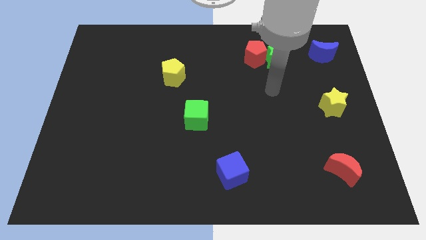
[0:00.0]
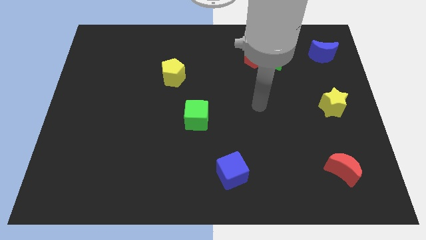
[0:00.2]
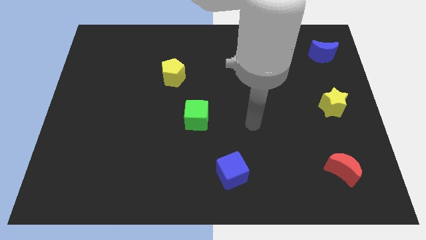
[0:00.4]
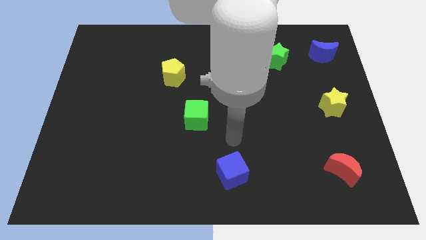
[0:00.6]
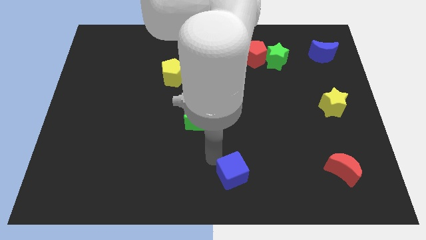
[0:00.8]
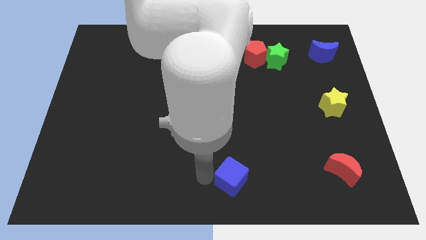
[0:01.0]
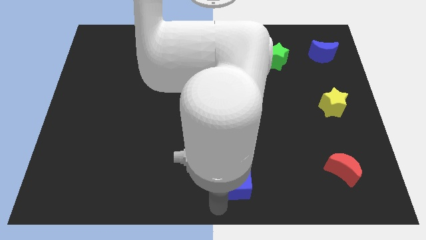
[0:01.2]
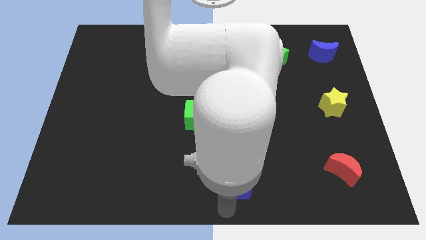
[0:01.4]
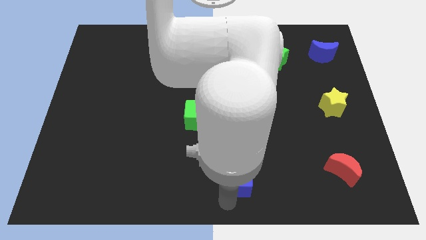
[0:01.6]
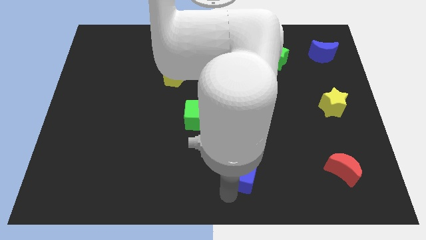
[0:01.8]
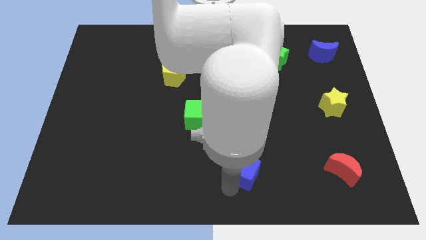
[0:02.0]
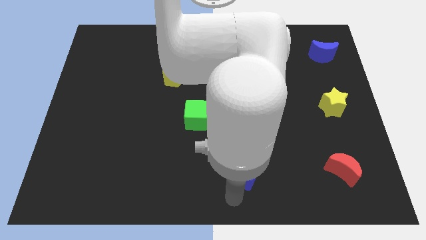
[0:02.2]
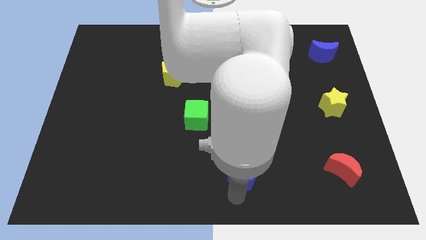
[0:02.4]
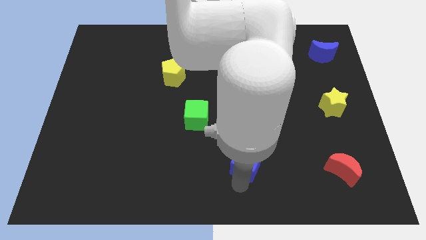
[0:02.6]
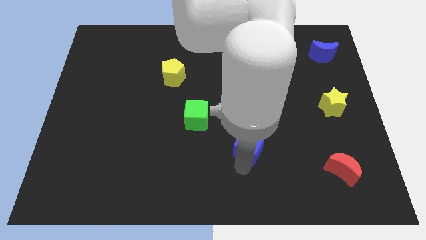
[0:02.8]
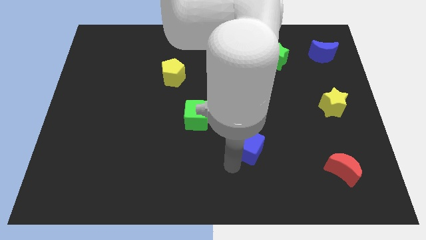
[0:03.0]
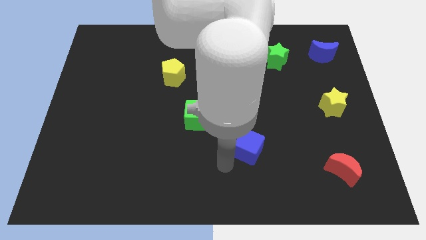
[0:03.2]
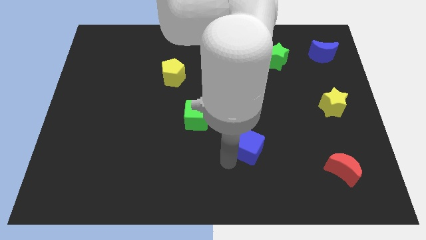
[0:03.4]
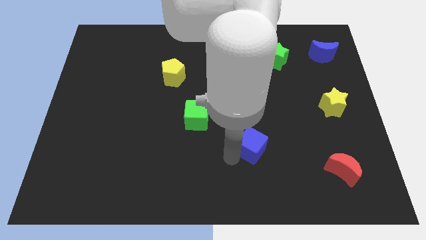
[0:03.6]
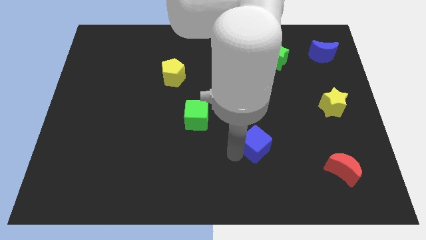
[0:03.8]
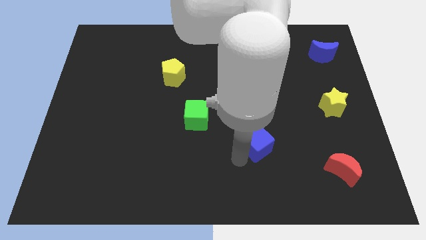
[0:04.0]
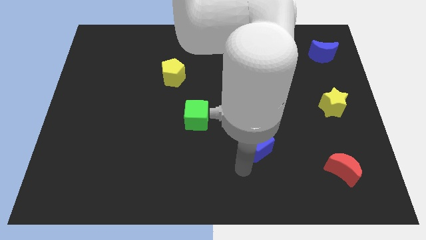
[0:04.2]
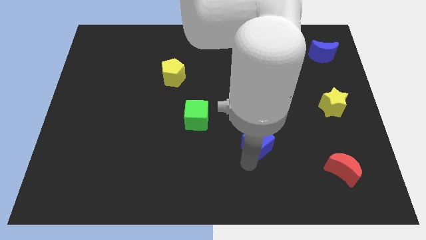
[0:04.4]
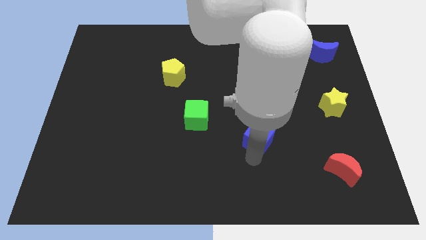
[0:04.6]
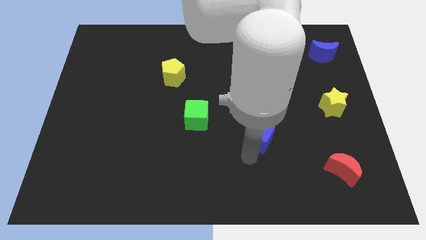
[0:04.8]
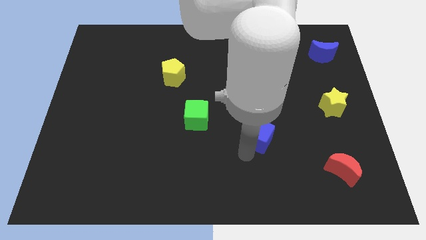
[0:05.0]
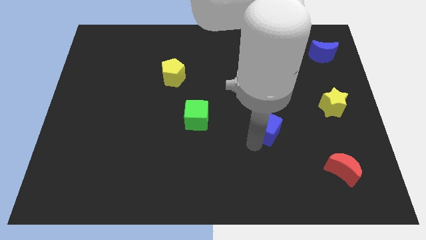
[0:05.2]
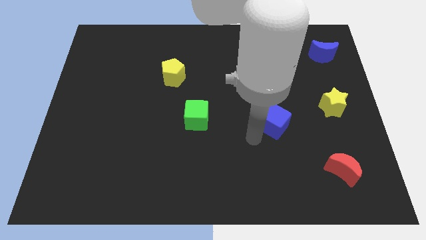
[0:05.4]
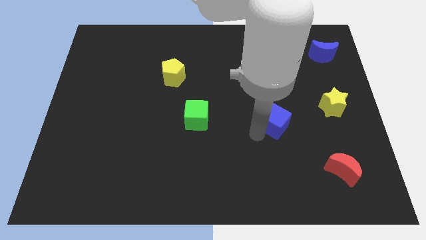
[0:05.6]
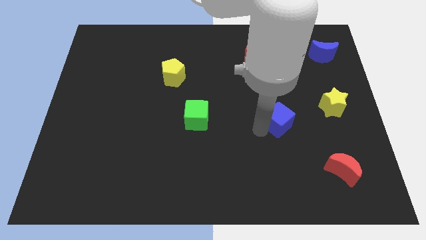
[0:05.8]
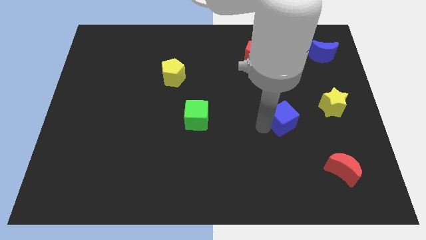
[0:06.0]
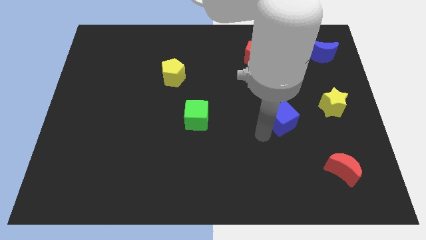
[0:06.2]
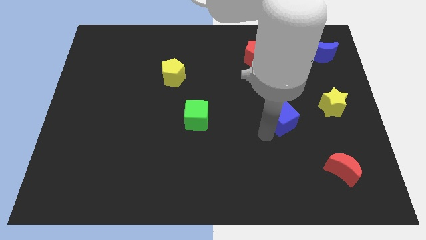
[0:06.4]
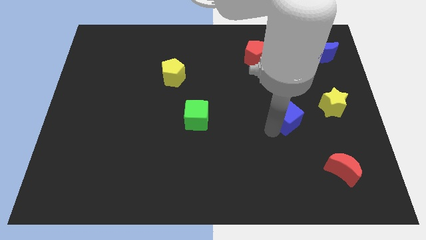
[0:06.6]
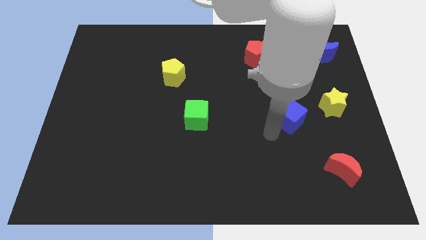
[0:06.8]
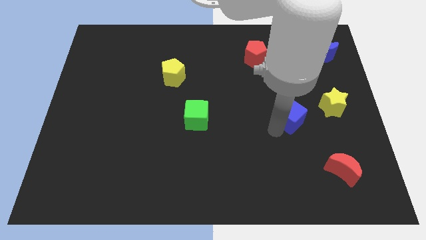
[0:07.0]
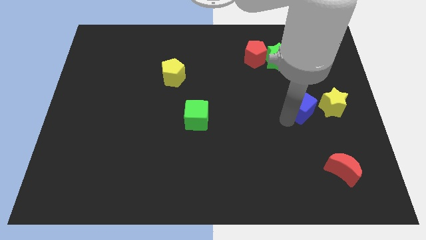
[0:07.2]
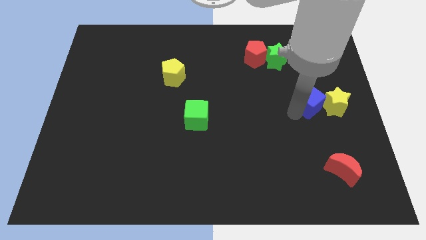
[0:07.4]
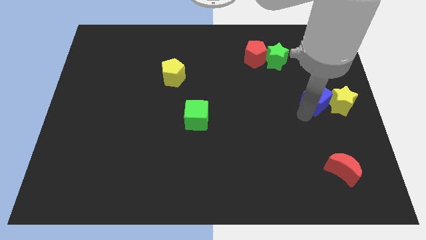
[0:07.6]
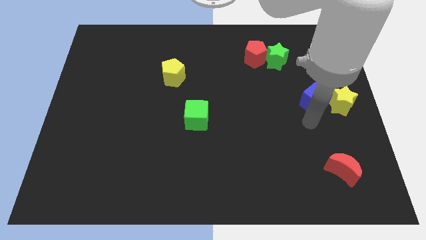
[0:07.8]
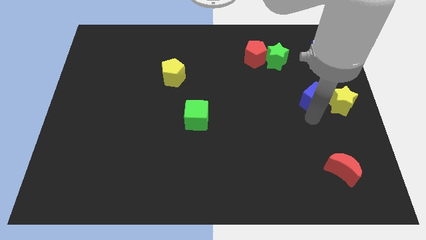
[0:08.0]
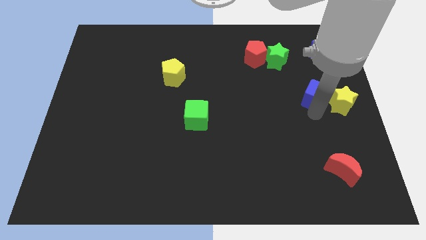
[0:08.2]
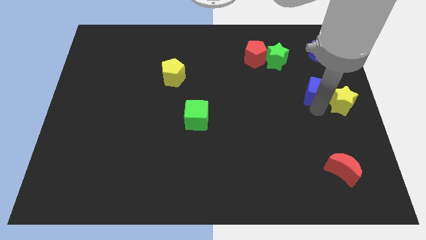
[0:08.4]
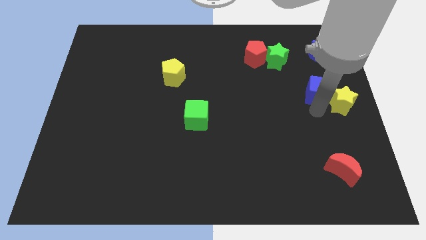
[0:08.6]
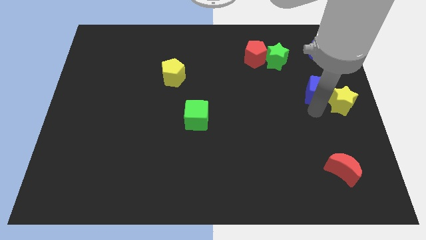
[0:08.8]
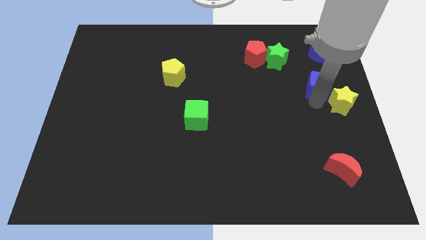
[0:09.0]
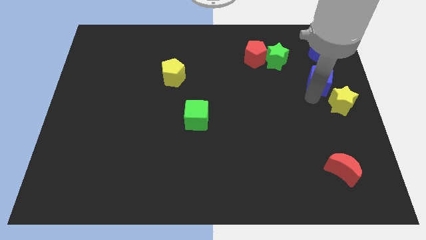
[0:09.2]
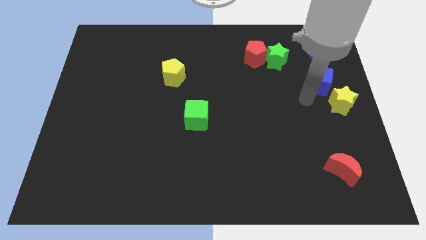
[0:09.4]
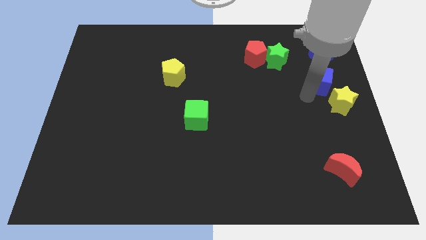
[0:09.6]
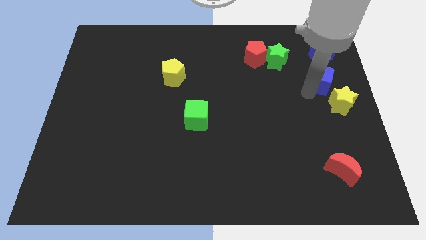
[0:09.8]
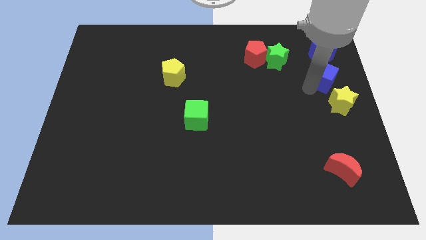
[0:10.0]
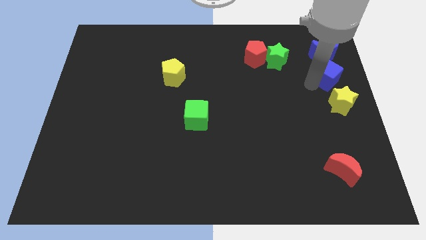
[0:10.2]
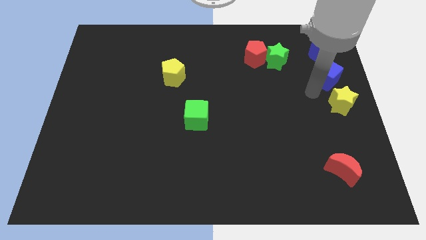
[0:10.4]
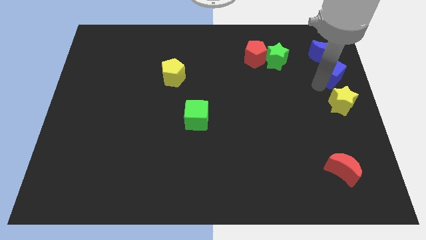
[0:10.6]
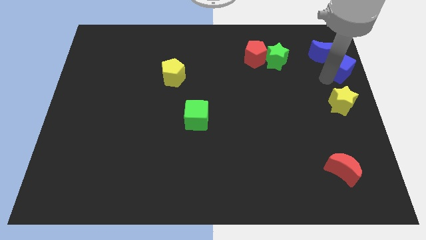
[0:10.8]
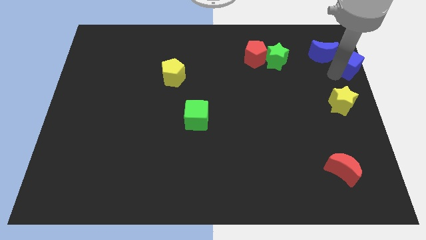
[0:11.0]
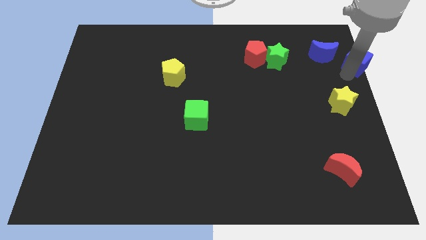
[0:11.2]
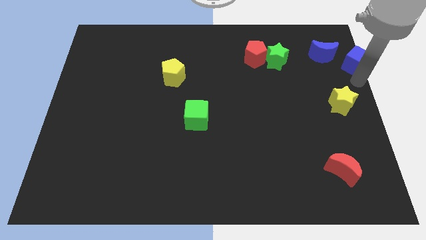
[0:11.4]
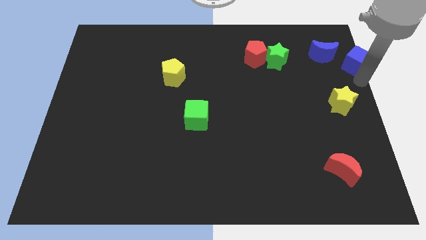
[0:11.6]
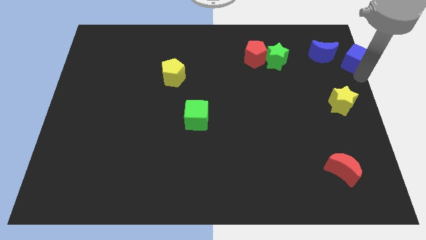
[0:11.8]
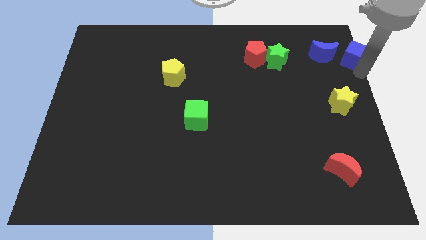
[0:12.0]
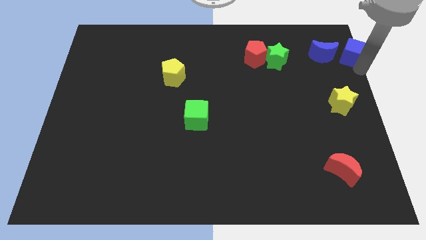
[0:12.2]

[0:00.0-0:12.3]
push the blue cube to the top right corner

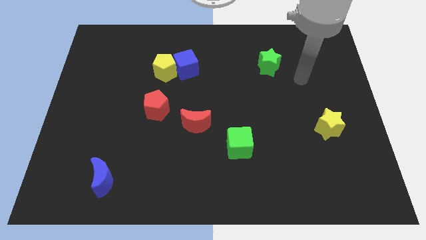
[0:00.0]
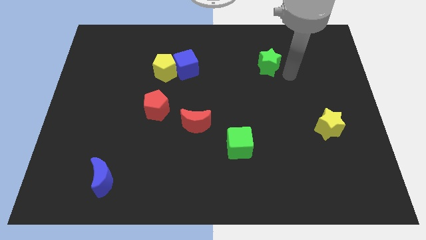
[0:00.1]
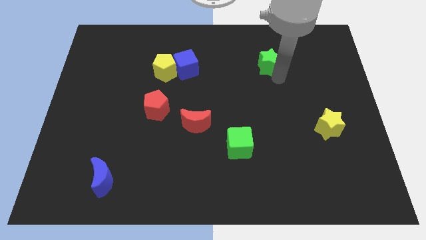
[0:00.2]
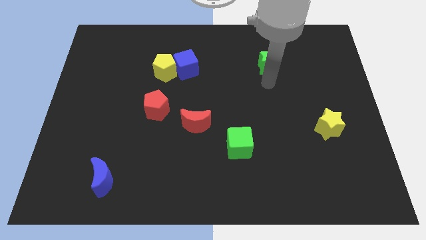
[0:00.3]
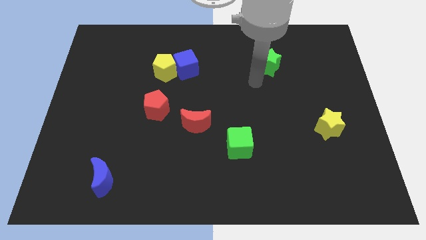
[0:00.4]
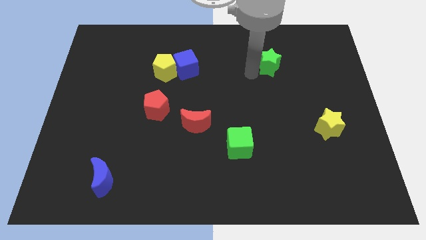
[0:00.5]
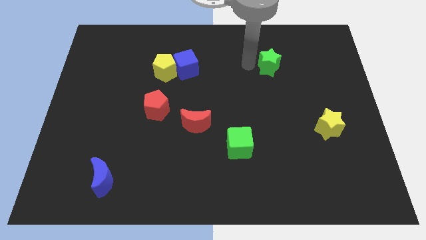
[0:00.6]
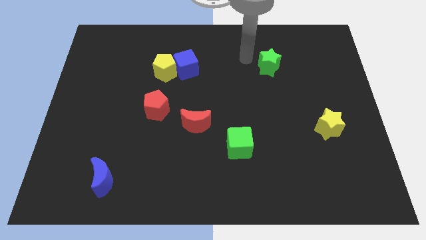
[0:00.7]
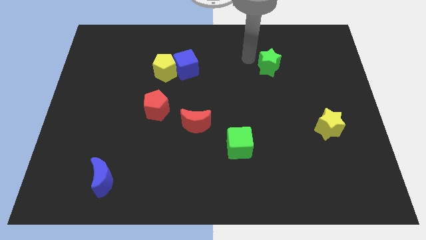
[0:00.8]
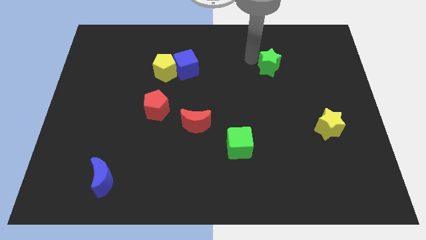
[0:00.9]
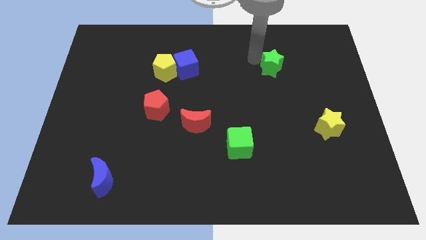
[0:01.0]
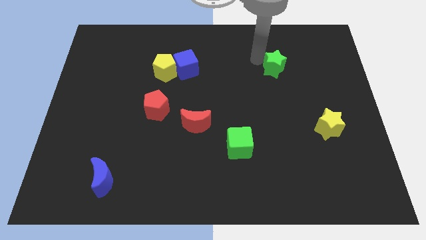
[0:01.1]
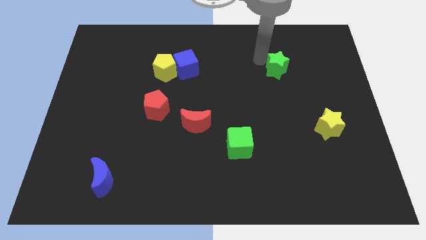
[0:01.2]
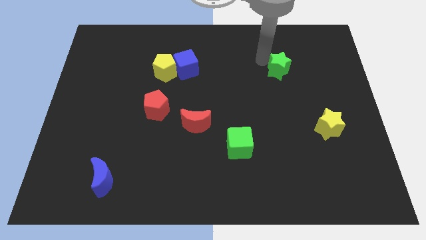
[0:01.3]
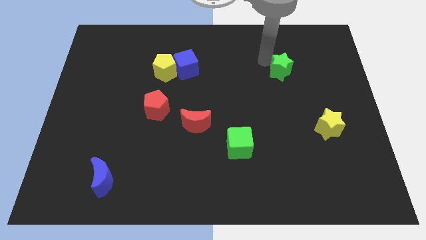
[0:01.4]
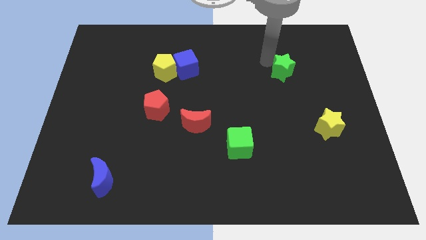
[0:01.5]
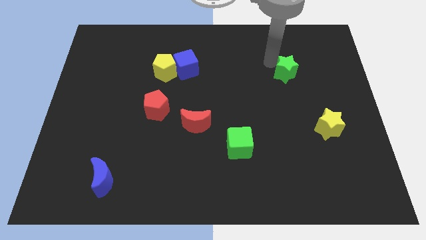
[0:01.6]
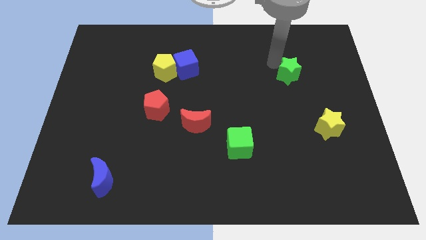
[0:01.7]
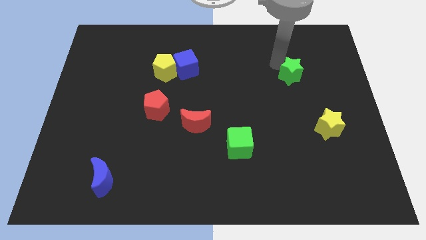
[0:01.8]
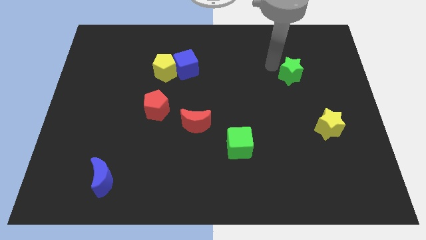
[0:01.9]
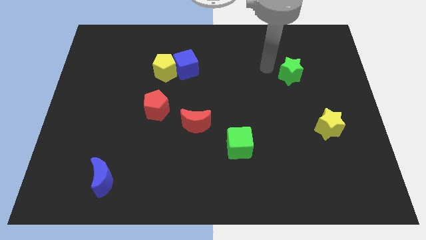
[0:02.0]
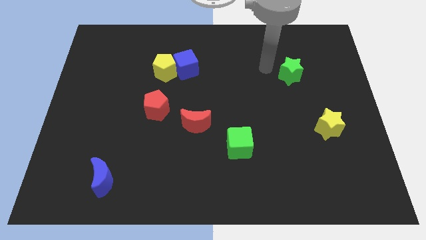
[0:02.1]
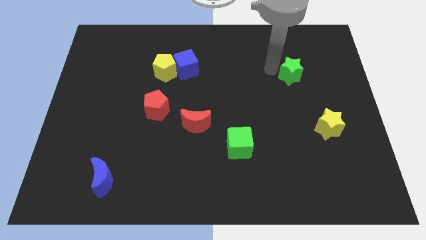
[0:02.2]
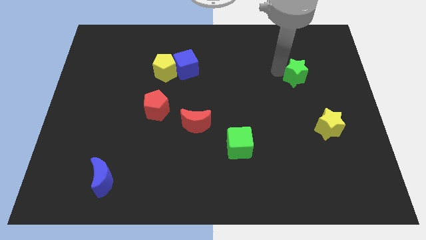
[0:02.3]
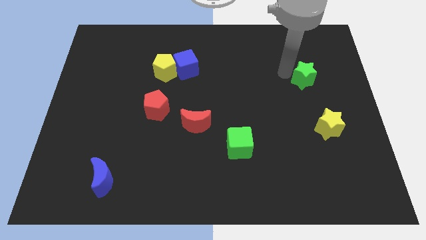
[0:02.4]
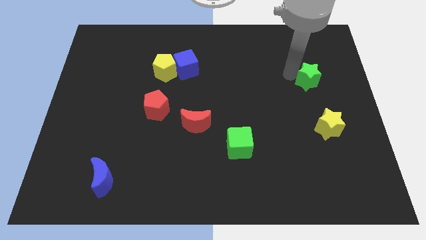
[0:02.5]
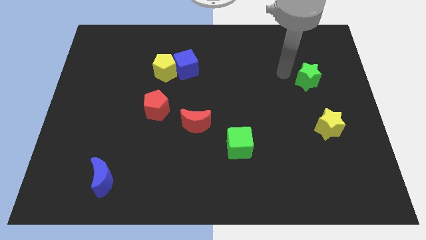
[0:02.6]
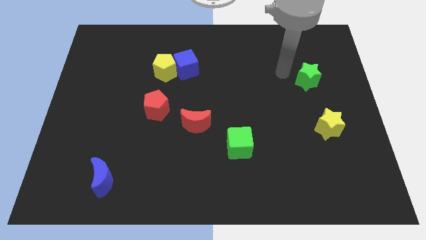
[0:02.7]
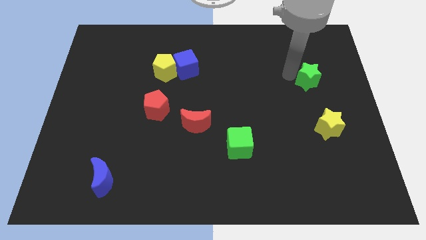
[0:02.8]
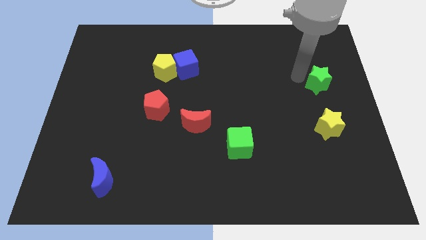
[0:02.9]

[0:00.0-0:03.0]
put the green star to the center right
